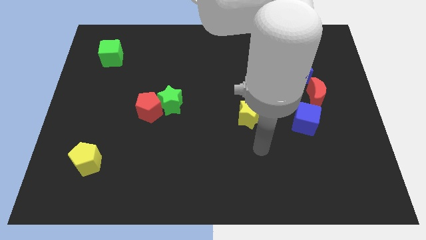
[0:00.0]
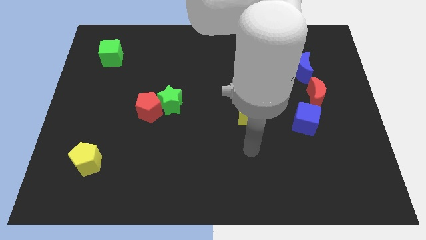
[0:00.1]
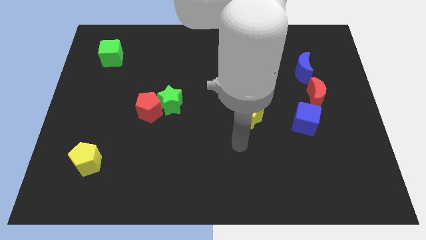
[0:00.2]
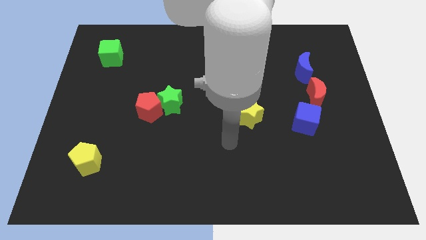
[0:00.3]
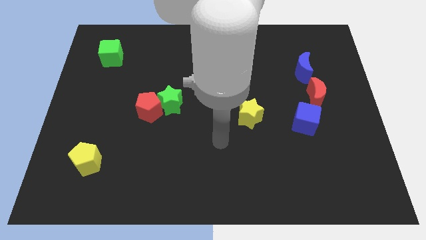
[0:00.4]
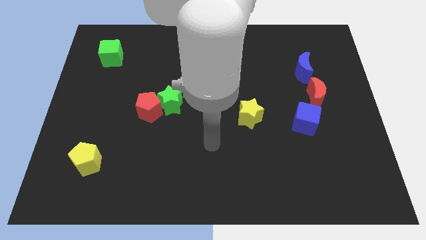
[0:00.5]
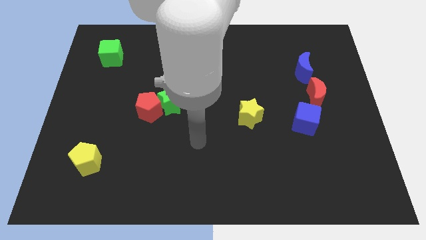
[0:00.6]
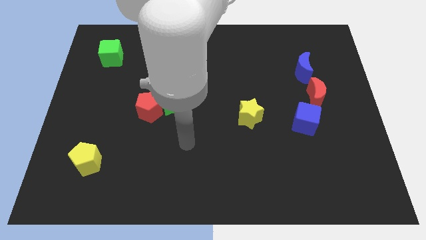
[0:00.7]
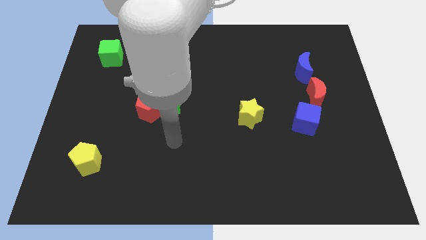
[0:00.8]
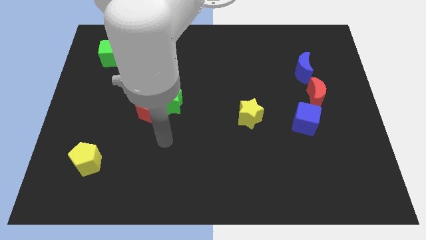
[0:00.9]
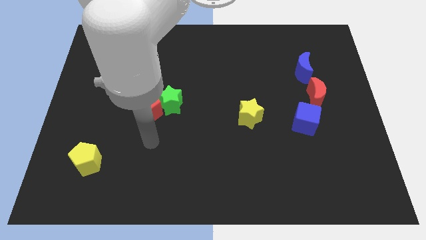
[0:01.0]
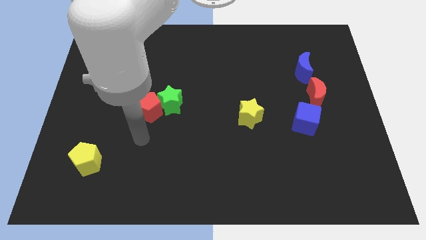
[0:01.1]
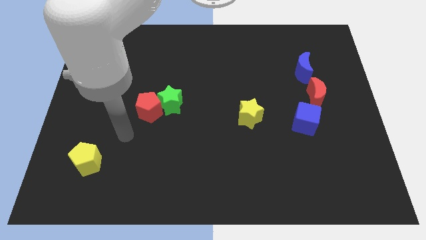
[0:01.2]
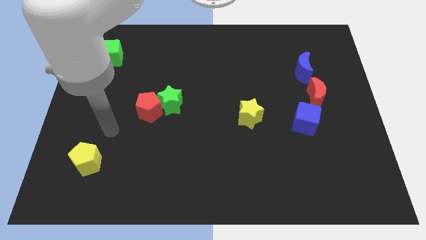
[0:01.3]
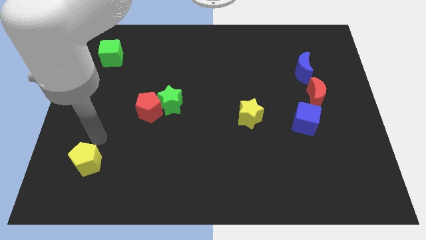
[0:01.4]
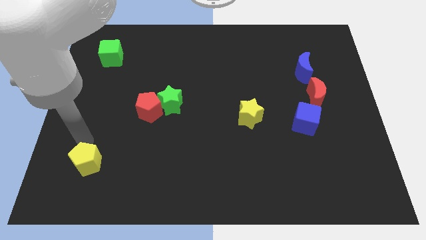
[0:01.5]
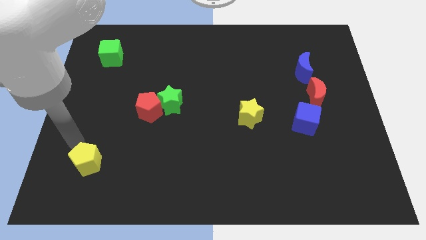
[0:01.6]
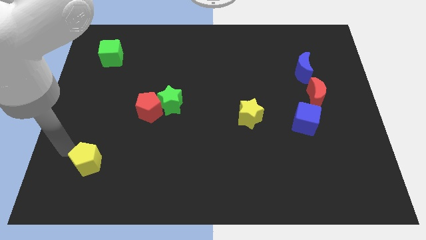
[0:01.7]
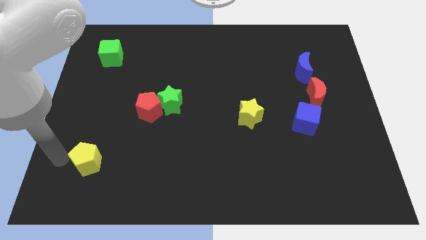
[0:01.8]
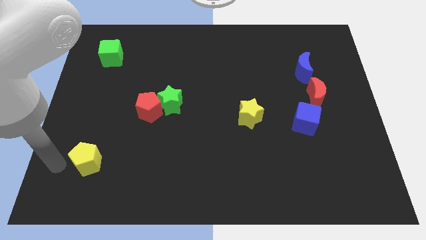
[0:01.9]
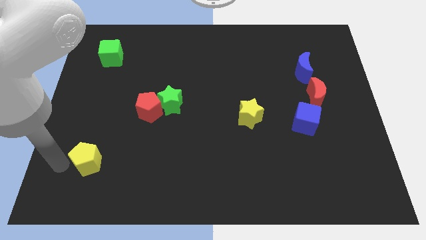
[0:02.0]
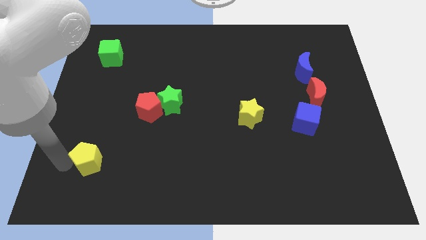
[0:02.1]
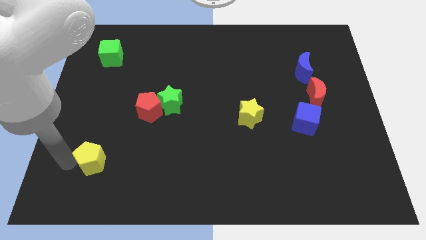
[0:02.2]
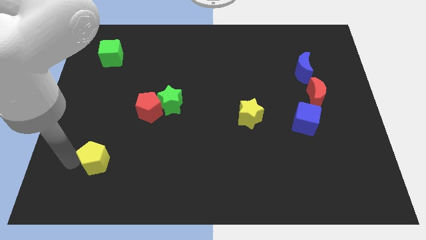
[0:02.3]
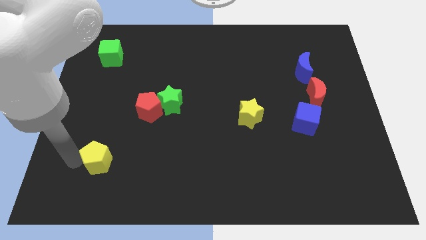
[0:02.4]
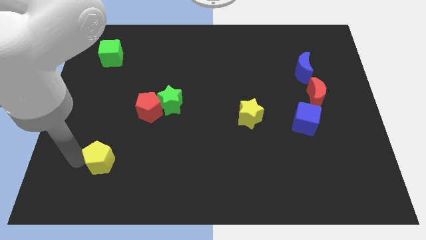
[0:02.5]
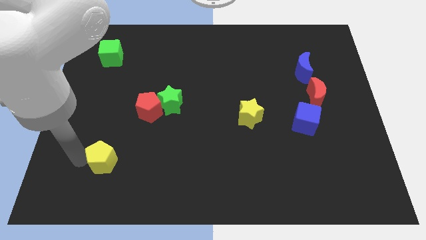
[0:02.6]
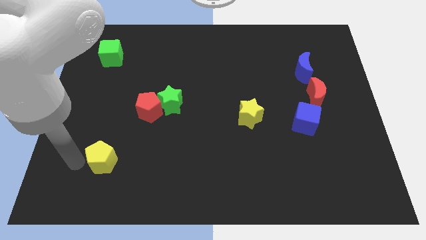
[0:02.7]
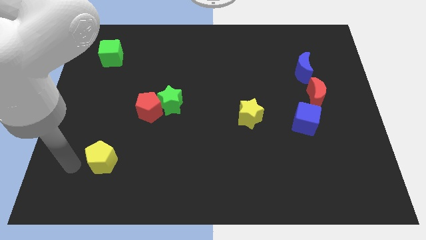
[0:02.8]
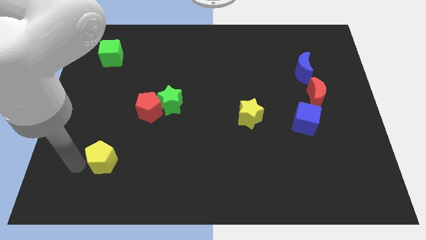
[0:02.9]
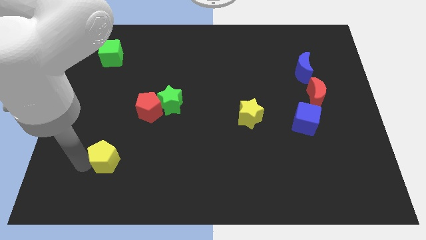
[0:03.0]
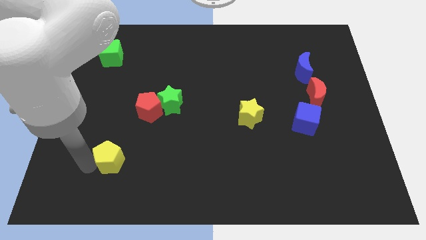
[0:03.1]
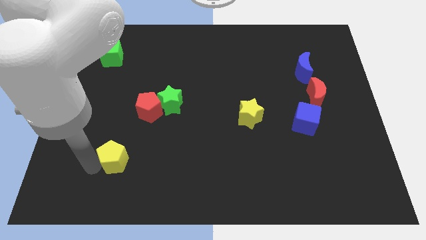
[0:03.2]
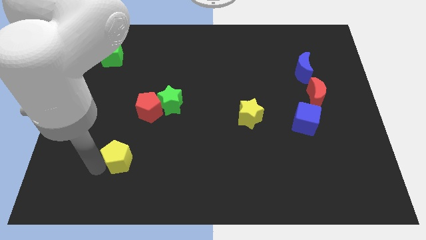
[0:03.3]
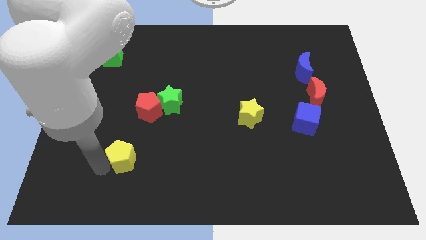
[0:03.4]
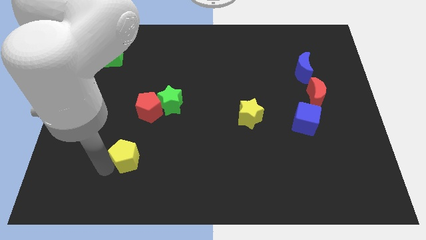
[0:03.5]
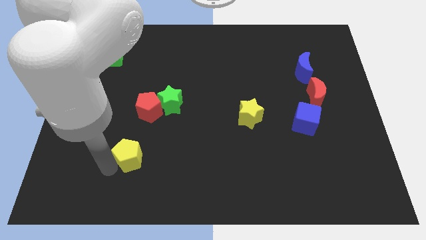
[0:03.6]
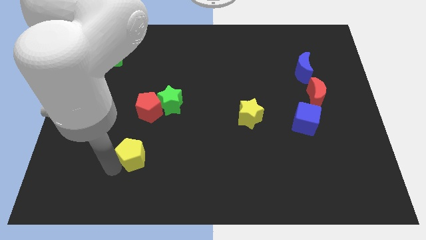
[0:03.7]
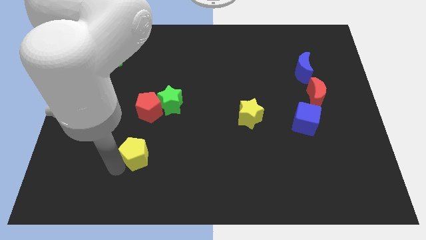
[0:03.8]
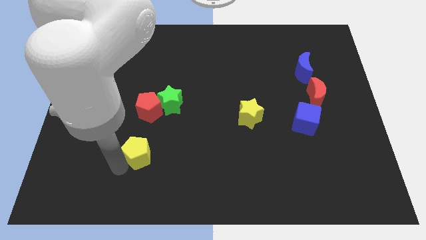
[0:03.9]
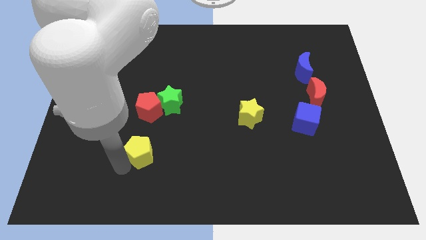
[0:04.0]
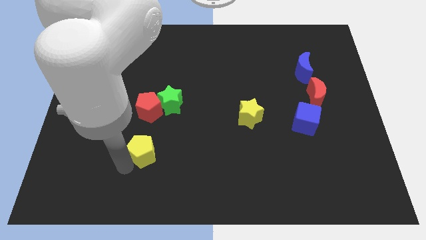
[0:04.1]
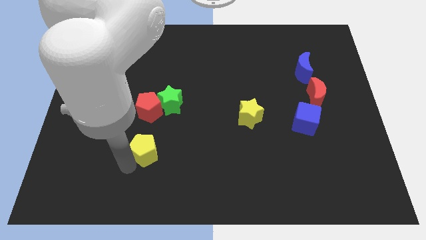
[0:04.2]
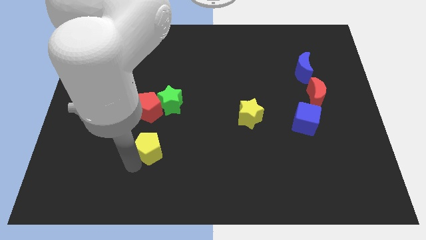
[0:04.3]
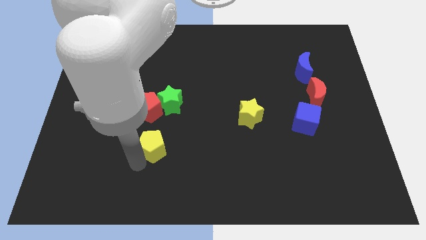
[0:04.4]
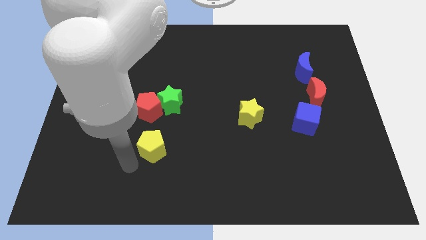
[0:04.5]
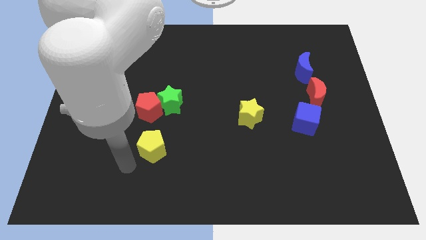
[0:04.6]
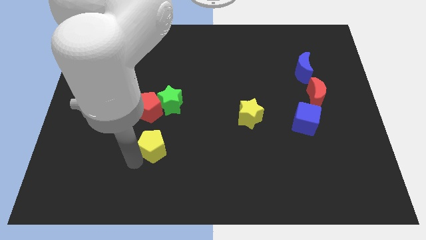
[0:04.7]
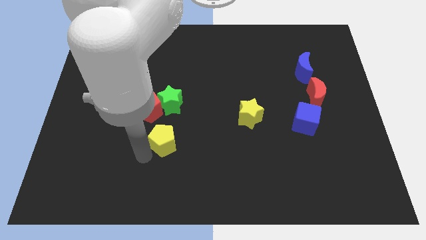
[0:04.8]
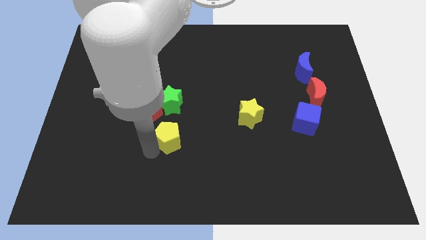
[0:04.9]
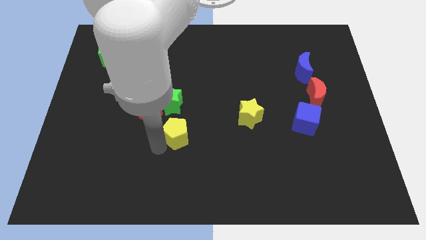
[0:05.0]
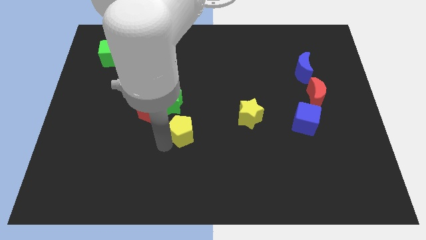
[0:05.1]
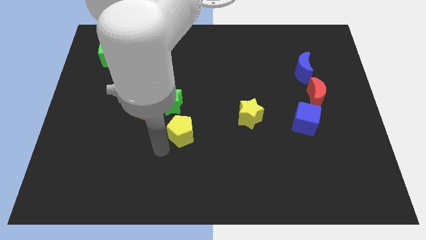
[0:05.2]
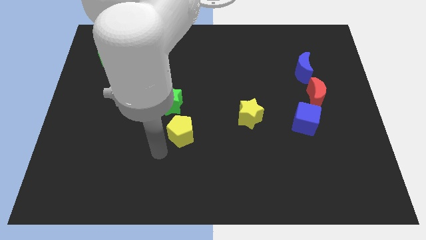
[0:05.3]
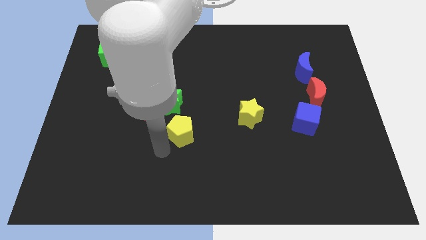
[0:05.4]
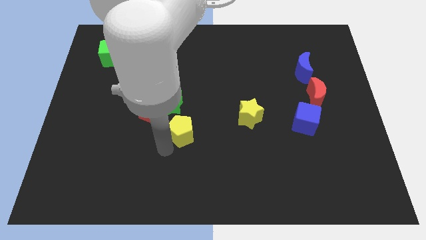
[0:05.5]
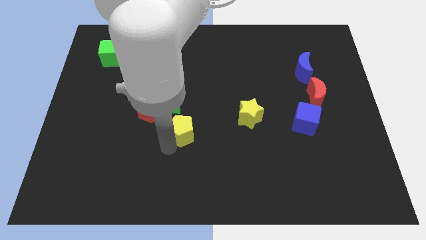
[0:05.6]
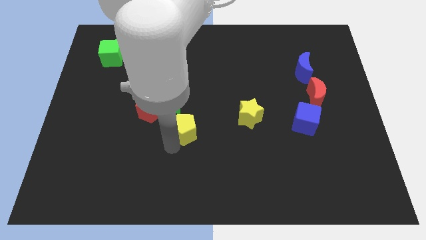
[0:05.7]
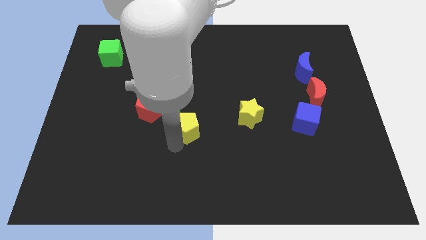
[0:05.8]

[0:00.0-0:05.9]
push the yellow pentagon to the left of the yellow star
